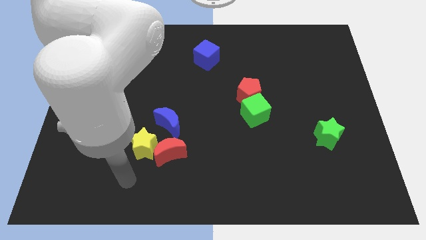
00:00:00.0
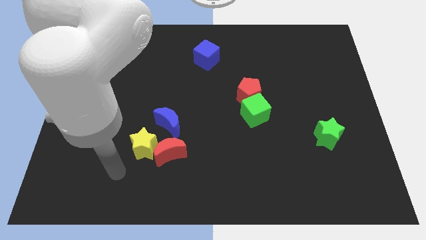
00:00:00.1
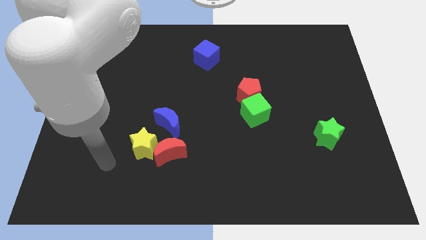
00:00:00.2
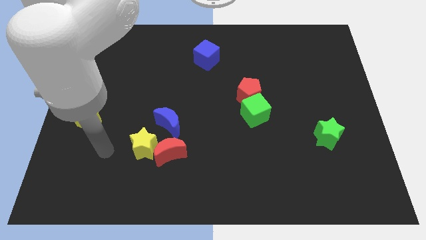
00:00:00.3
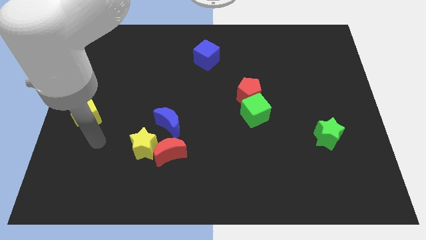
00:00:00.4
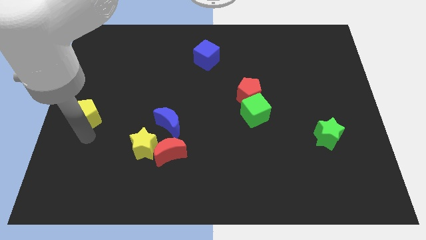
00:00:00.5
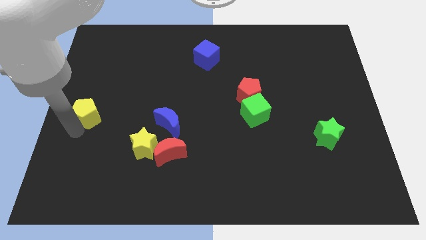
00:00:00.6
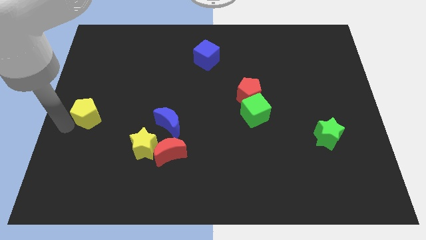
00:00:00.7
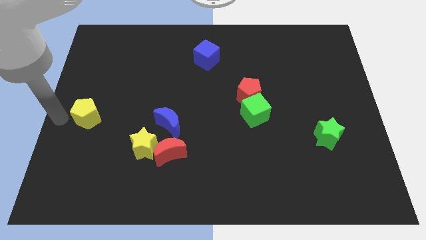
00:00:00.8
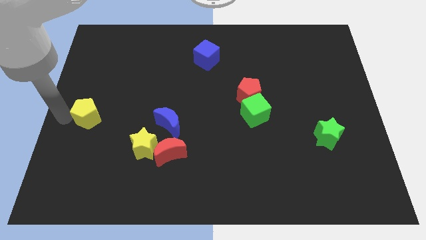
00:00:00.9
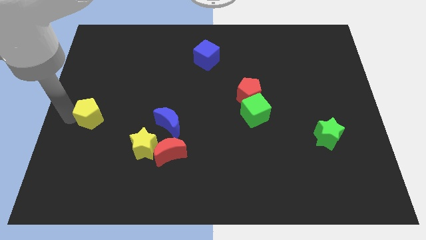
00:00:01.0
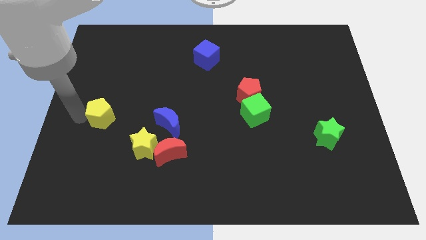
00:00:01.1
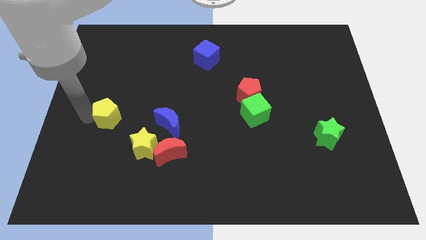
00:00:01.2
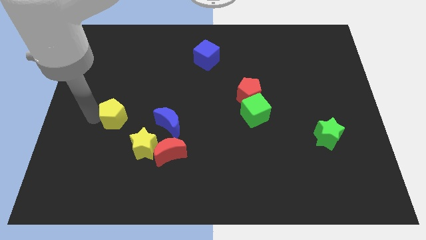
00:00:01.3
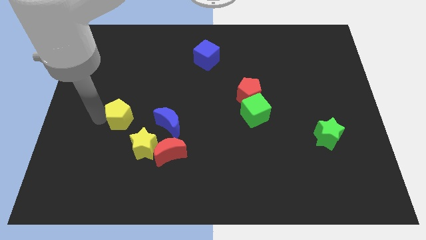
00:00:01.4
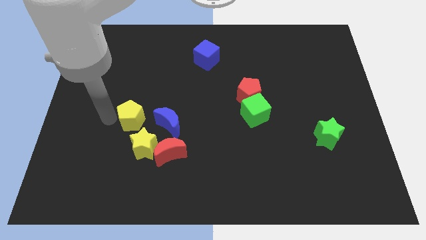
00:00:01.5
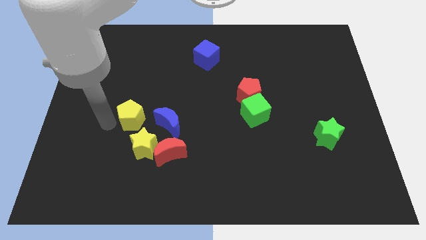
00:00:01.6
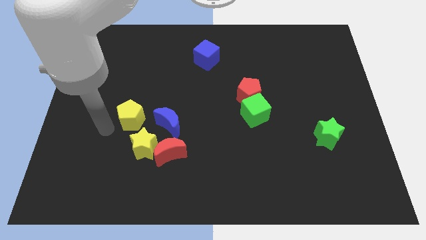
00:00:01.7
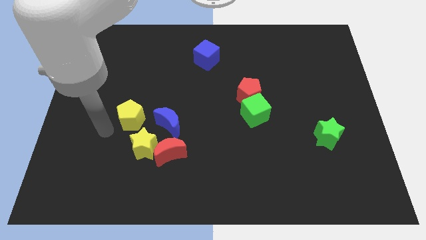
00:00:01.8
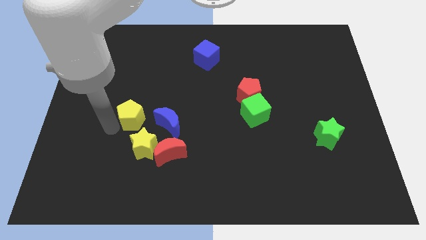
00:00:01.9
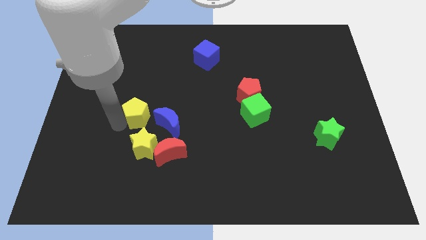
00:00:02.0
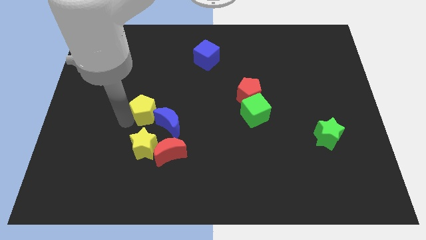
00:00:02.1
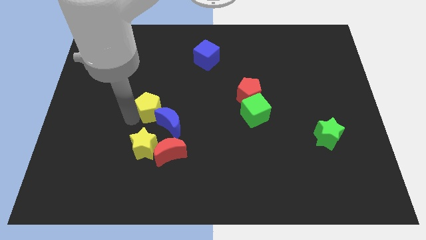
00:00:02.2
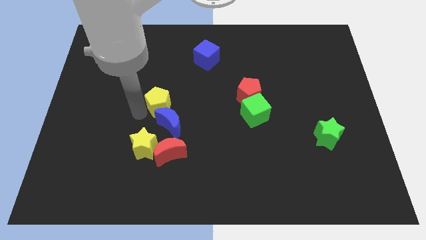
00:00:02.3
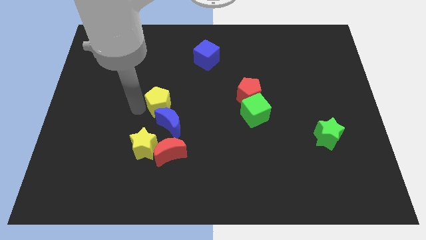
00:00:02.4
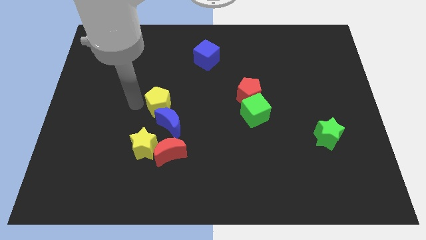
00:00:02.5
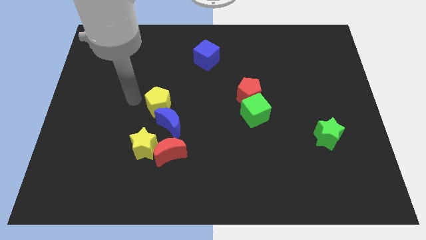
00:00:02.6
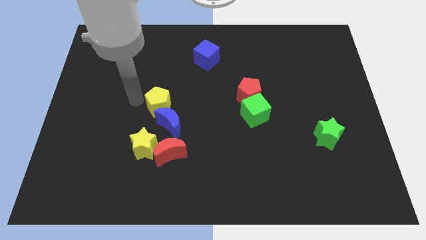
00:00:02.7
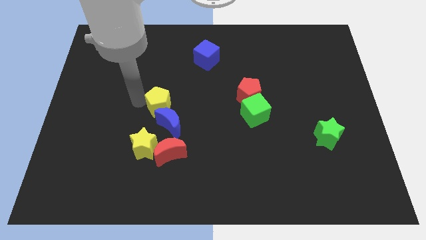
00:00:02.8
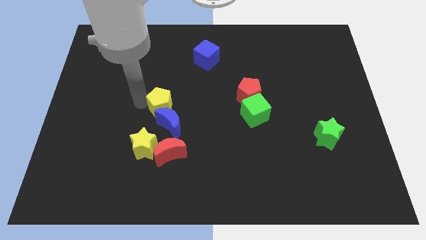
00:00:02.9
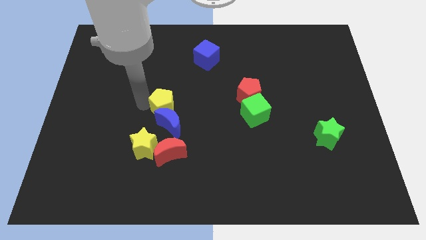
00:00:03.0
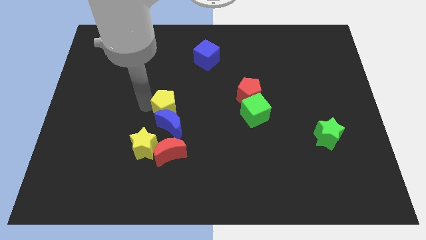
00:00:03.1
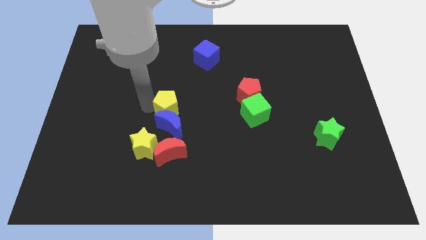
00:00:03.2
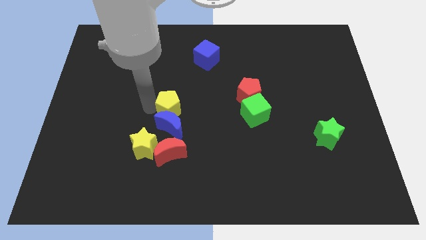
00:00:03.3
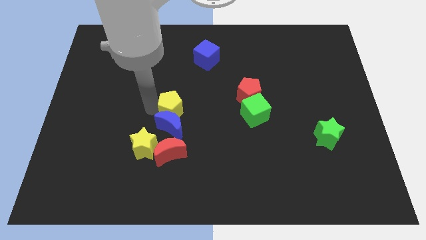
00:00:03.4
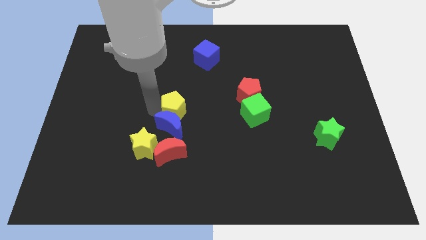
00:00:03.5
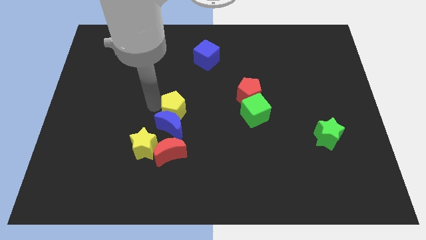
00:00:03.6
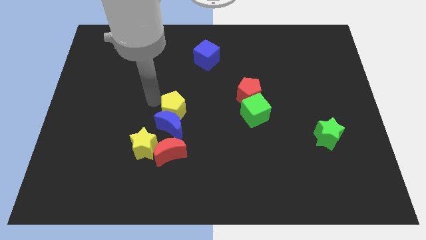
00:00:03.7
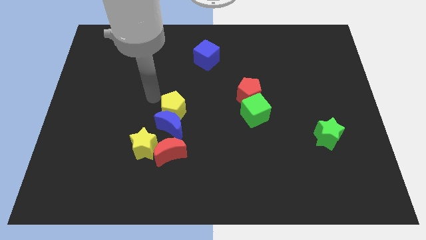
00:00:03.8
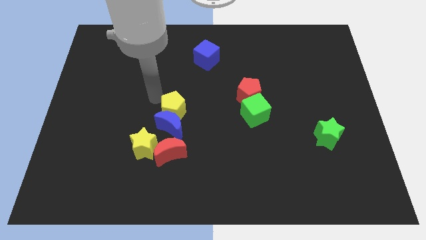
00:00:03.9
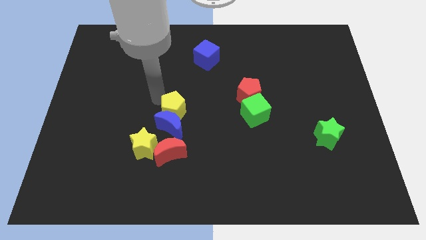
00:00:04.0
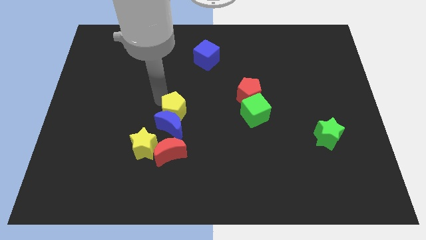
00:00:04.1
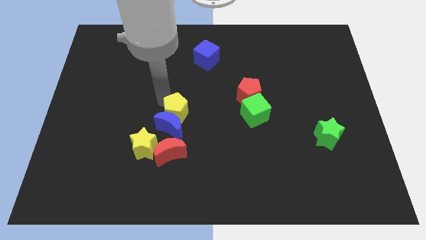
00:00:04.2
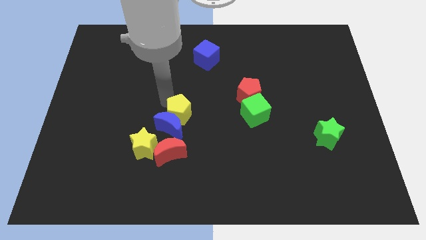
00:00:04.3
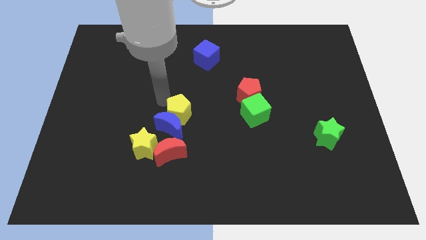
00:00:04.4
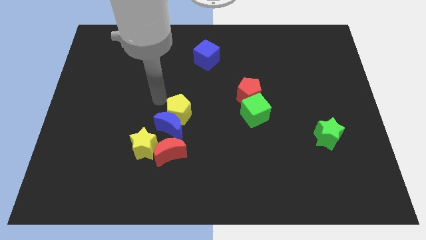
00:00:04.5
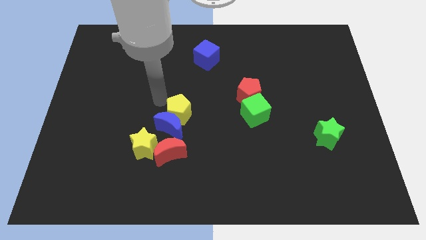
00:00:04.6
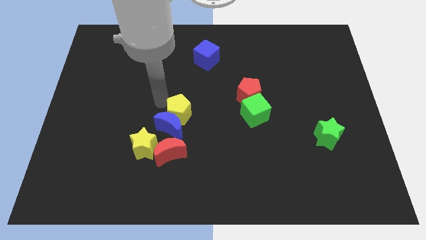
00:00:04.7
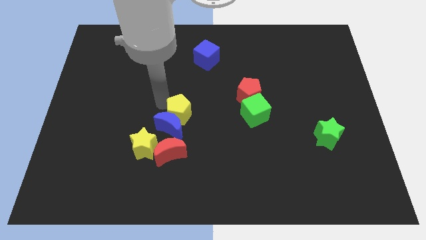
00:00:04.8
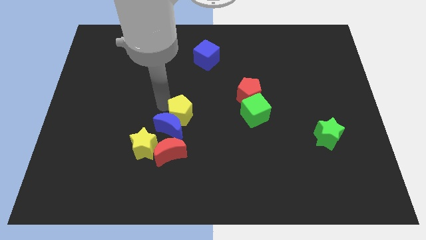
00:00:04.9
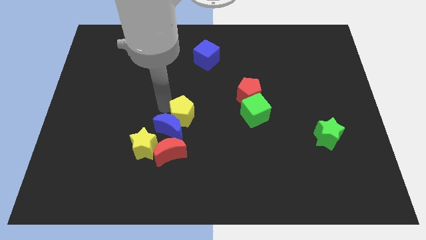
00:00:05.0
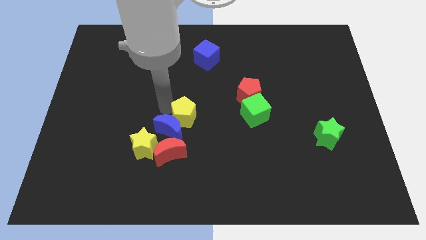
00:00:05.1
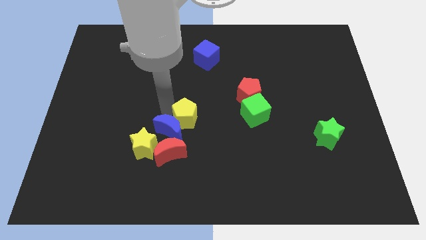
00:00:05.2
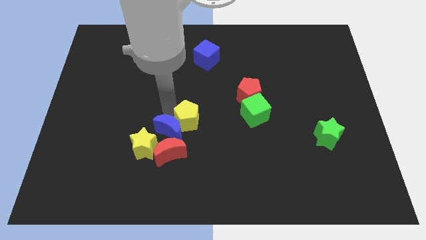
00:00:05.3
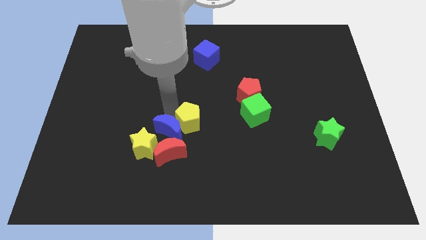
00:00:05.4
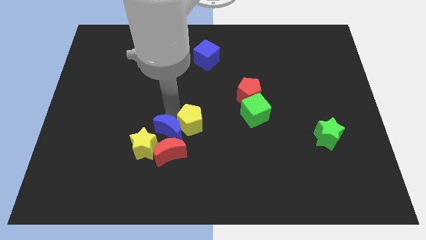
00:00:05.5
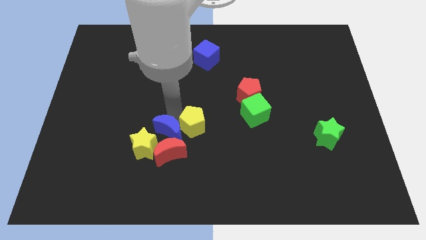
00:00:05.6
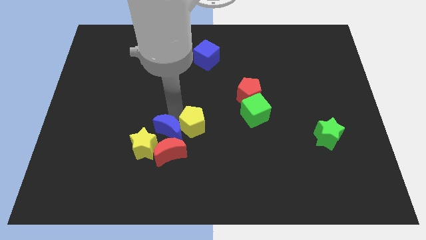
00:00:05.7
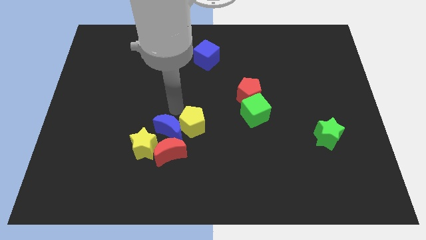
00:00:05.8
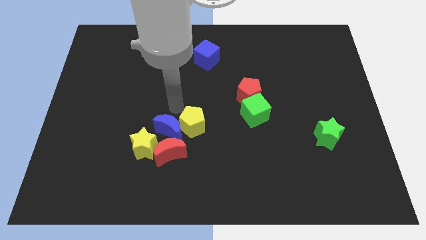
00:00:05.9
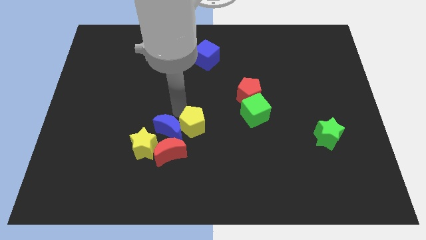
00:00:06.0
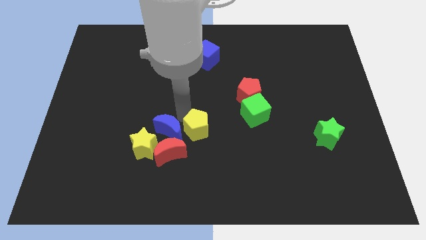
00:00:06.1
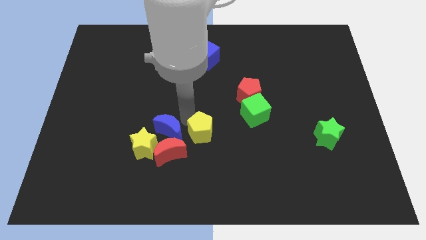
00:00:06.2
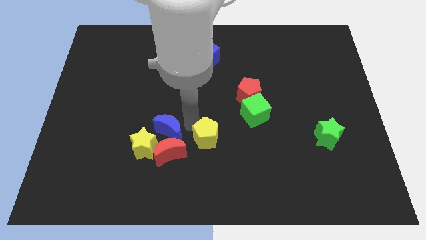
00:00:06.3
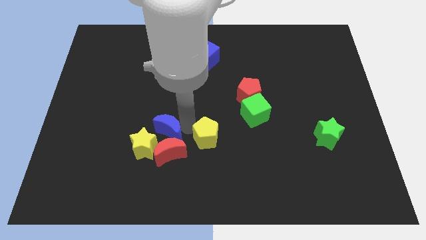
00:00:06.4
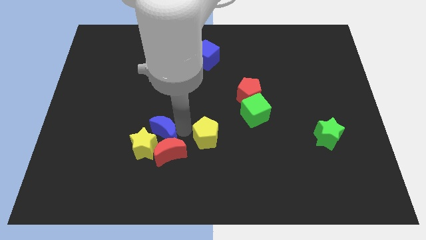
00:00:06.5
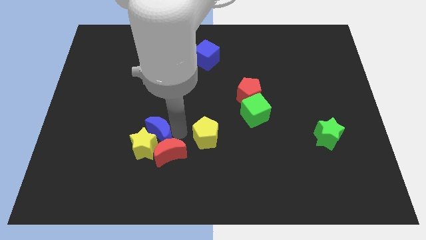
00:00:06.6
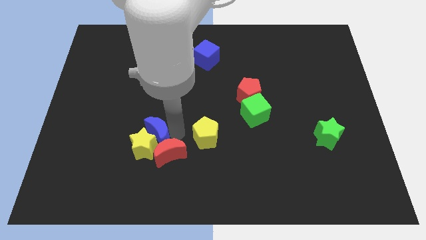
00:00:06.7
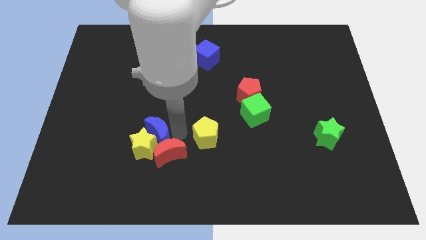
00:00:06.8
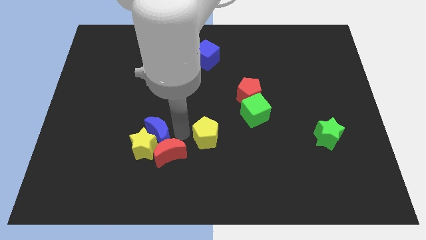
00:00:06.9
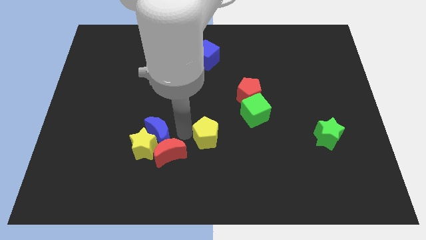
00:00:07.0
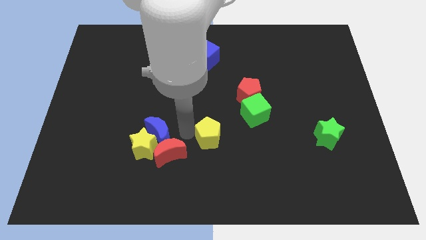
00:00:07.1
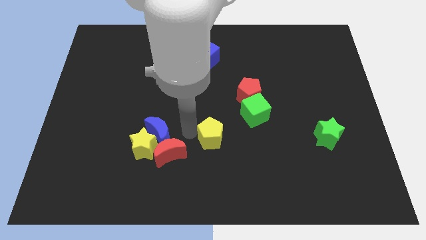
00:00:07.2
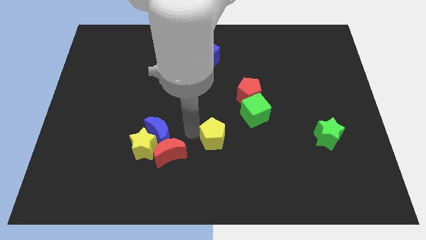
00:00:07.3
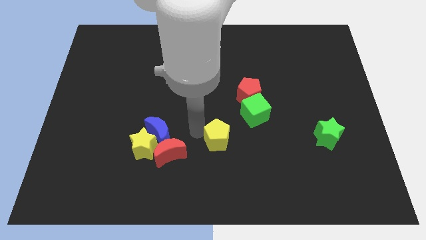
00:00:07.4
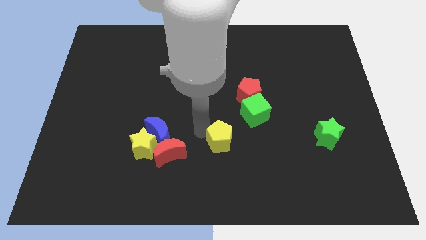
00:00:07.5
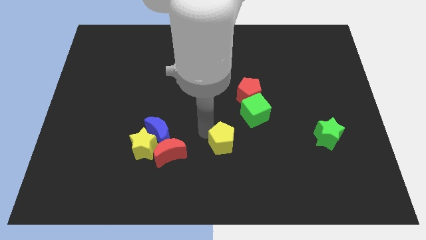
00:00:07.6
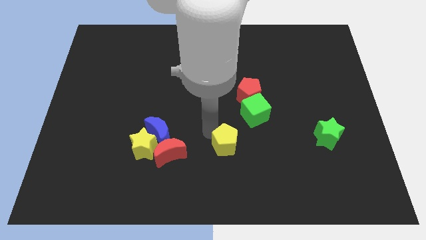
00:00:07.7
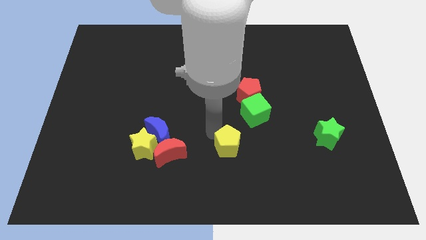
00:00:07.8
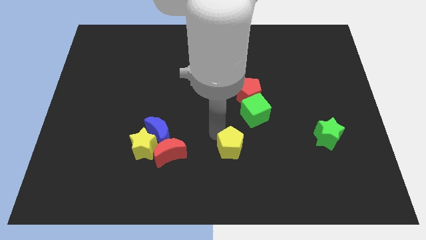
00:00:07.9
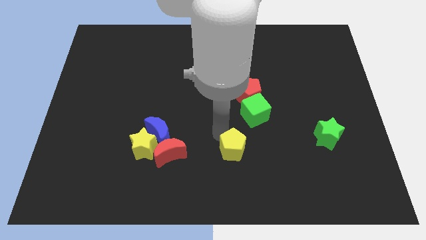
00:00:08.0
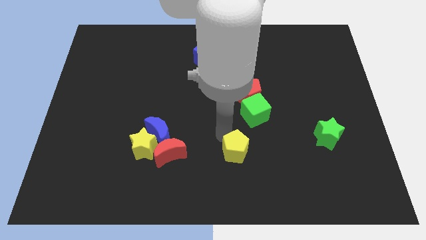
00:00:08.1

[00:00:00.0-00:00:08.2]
push the yellow pentagon to the bottom of the green cube
